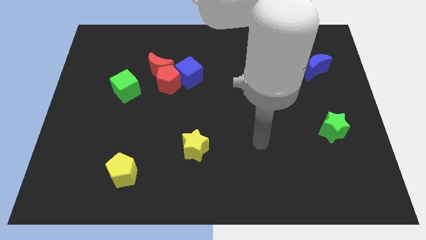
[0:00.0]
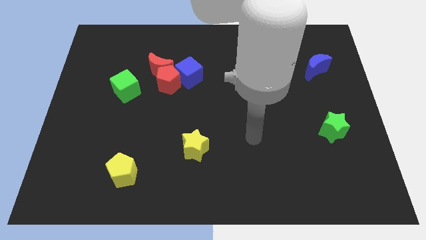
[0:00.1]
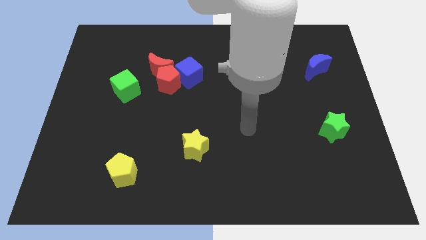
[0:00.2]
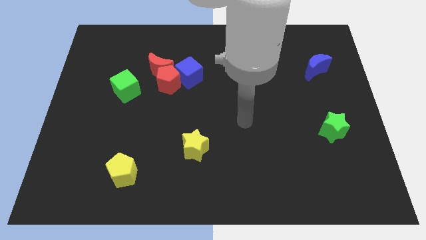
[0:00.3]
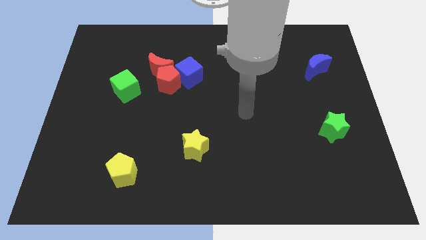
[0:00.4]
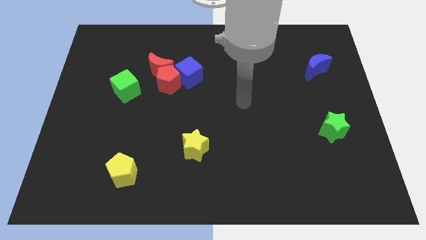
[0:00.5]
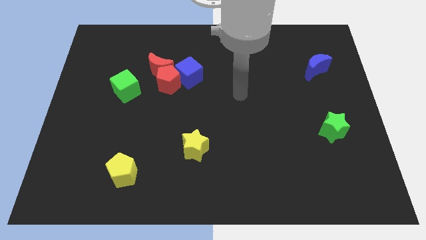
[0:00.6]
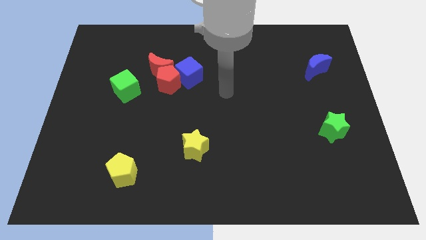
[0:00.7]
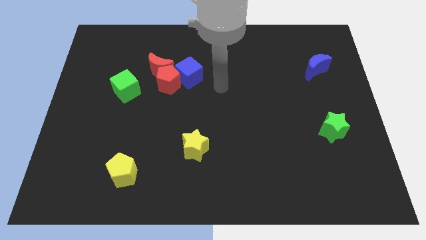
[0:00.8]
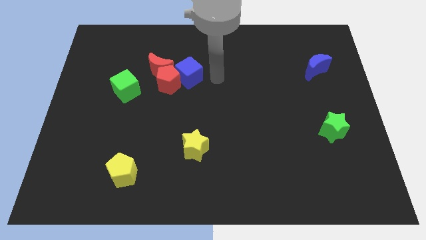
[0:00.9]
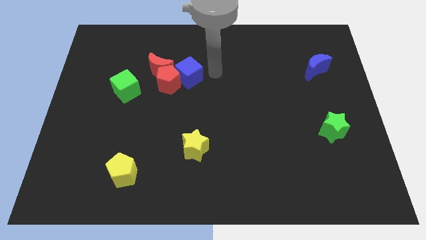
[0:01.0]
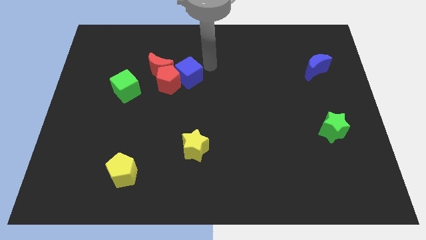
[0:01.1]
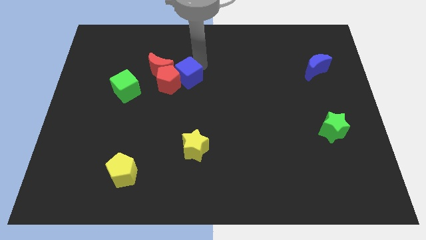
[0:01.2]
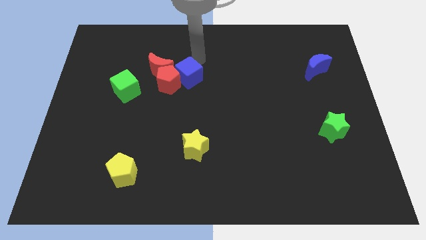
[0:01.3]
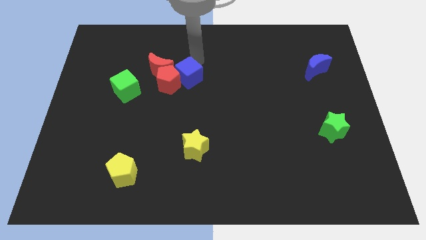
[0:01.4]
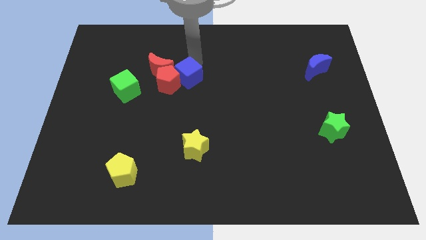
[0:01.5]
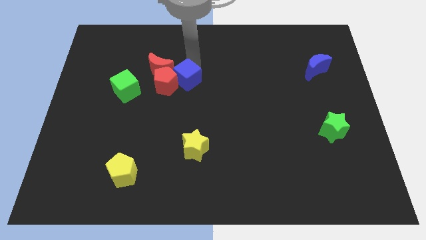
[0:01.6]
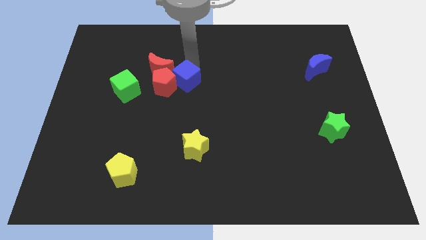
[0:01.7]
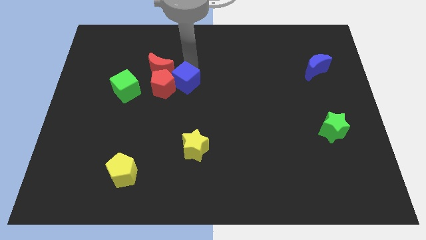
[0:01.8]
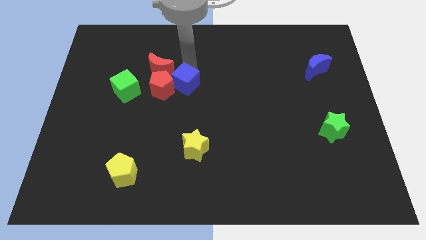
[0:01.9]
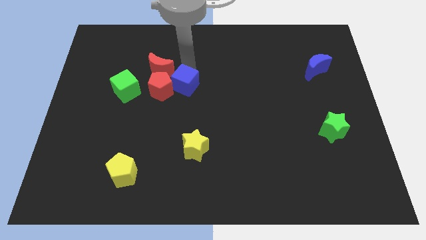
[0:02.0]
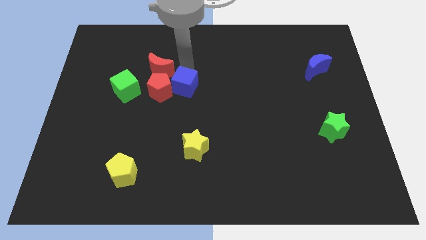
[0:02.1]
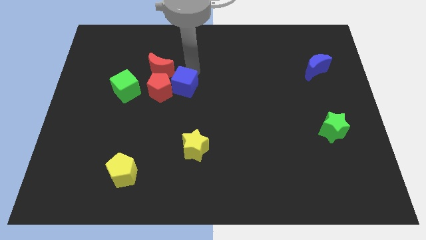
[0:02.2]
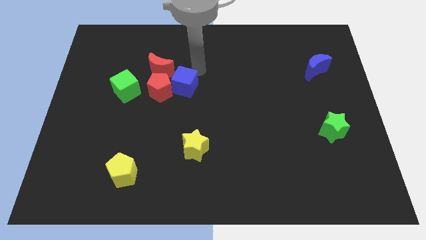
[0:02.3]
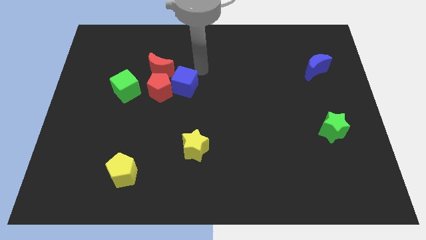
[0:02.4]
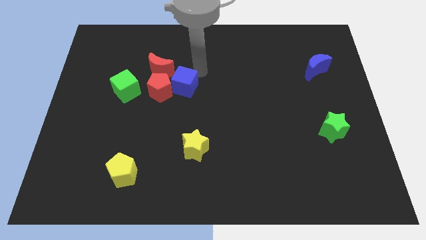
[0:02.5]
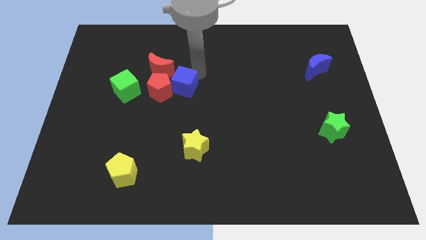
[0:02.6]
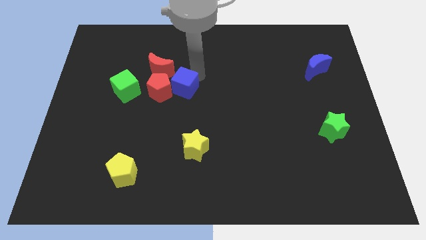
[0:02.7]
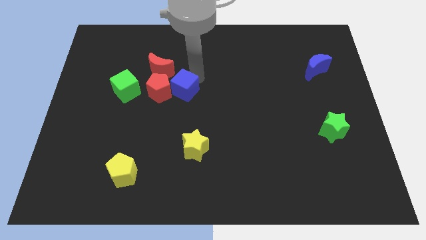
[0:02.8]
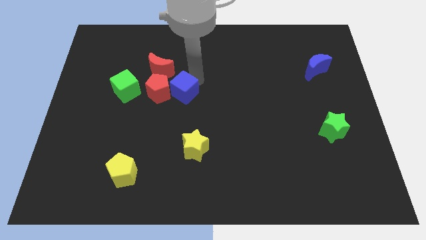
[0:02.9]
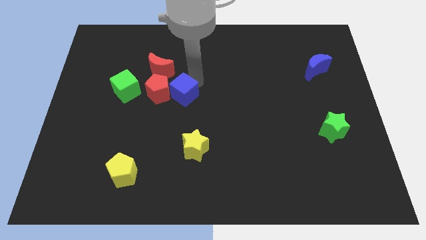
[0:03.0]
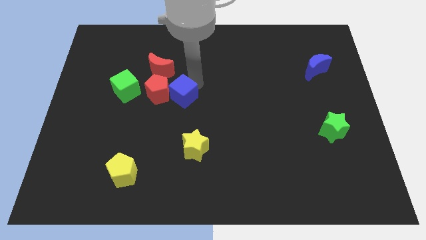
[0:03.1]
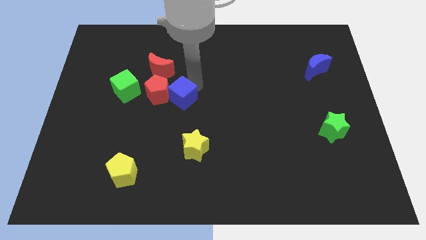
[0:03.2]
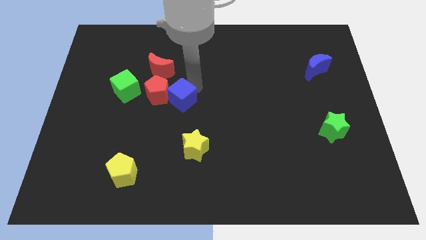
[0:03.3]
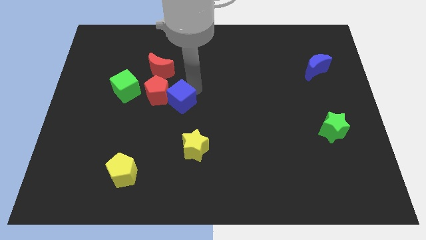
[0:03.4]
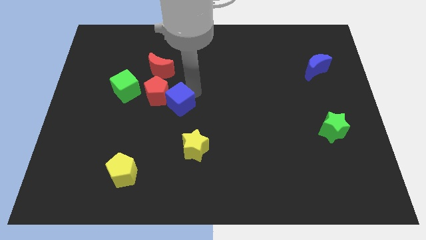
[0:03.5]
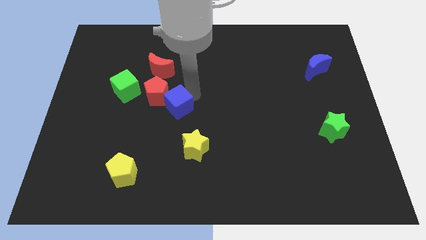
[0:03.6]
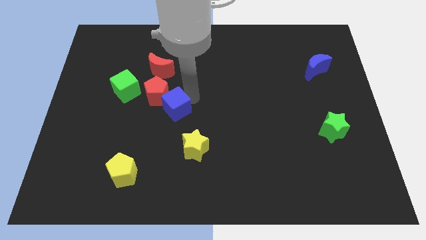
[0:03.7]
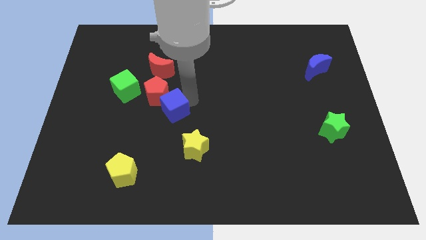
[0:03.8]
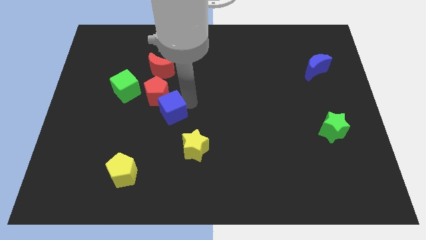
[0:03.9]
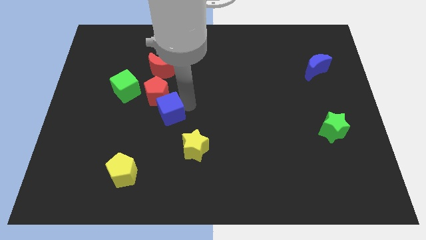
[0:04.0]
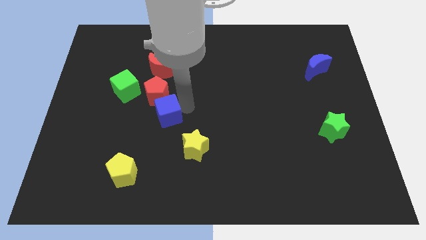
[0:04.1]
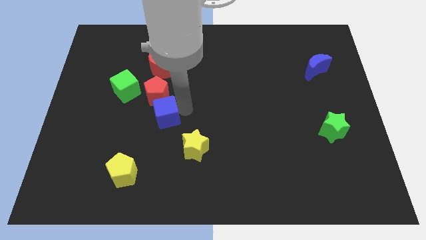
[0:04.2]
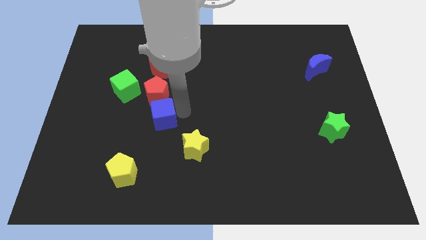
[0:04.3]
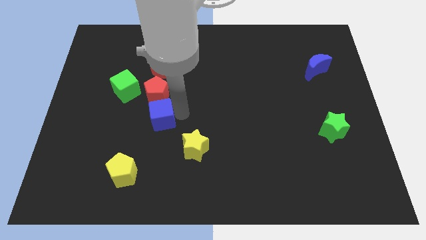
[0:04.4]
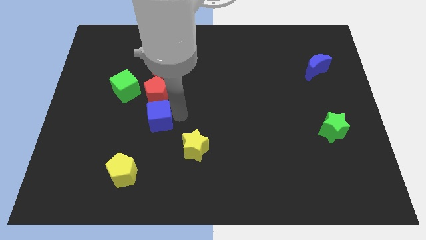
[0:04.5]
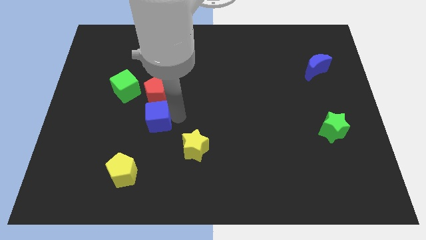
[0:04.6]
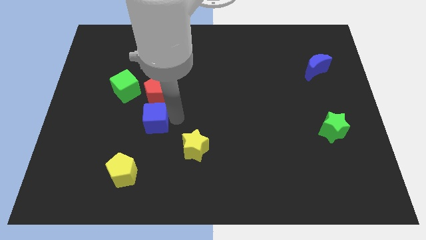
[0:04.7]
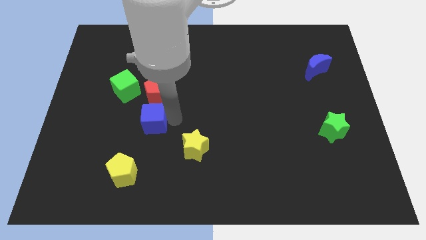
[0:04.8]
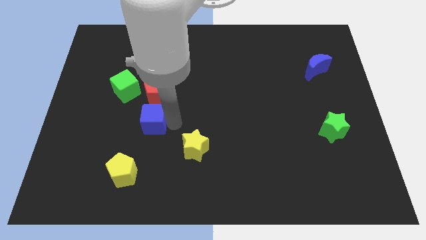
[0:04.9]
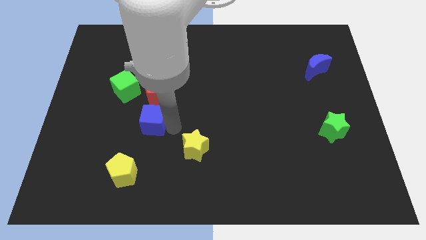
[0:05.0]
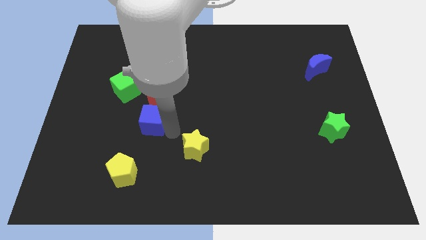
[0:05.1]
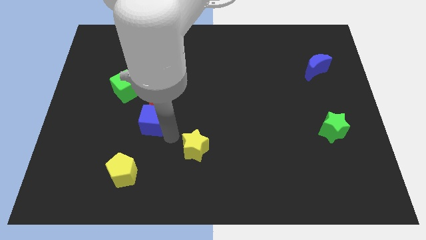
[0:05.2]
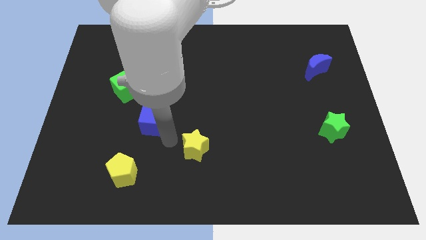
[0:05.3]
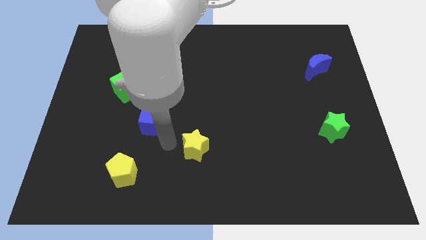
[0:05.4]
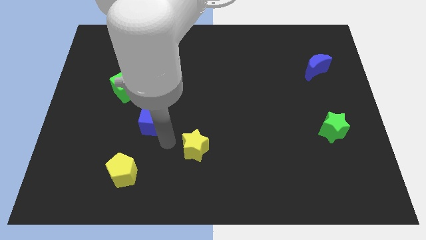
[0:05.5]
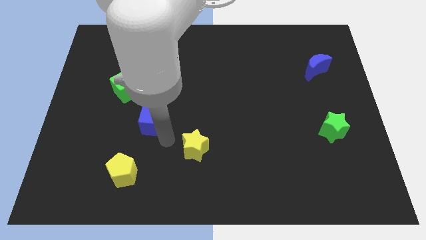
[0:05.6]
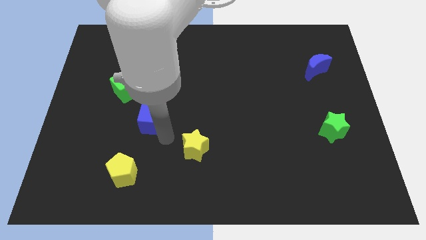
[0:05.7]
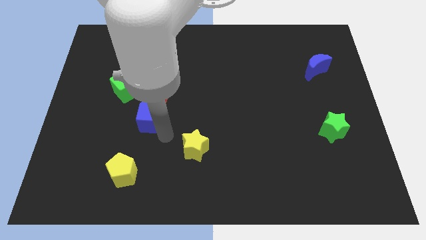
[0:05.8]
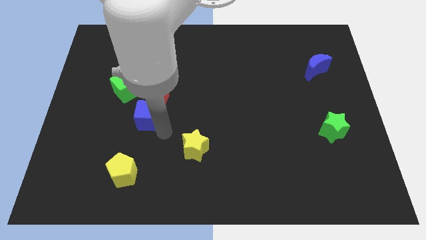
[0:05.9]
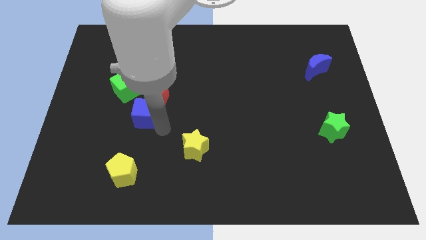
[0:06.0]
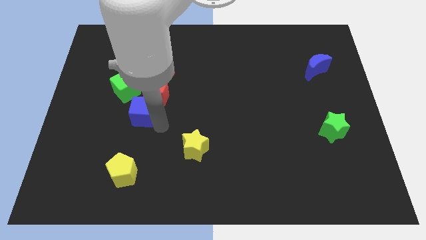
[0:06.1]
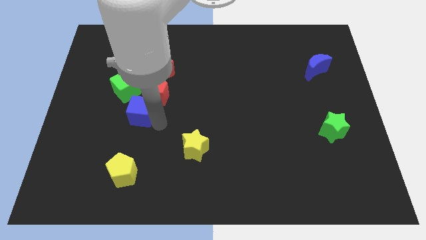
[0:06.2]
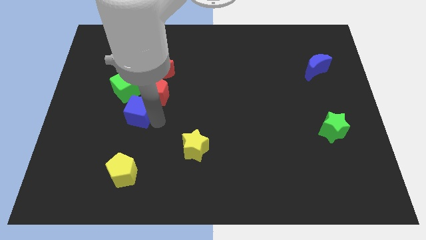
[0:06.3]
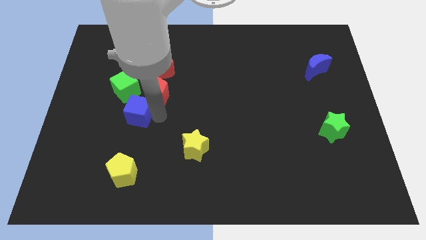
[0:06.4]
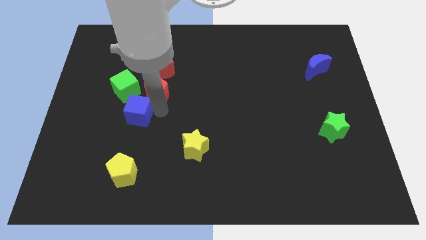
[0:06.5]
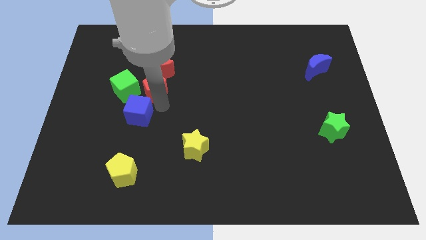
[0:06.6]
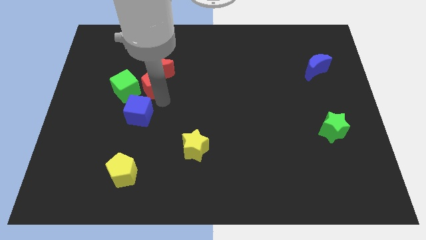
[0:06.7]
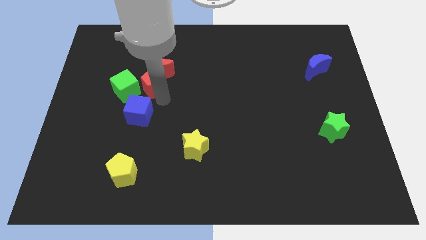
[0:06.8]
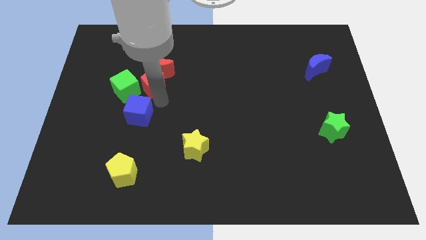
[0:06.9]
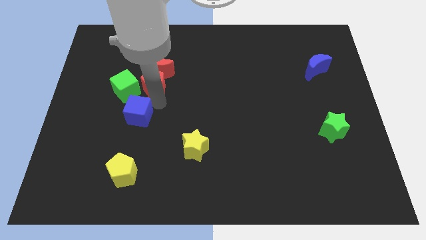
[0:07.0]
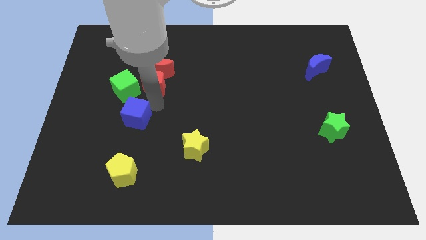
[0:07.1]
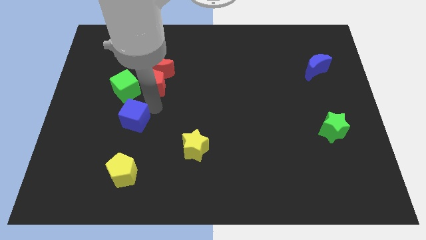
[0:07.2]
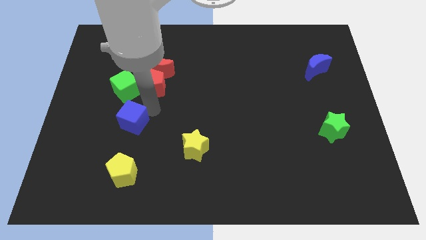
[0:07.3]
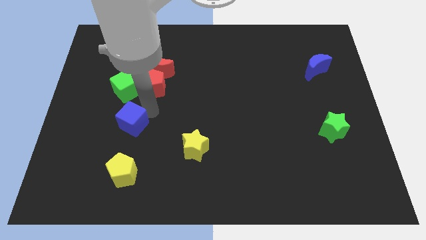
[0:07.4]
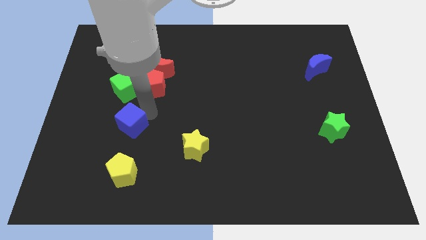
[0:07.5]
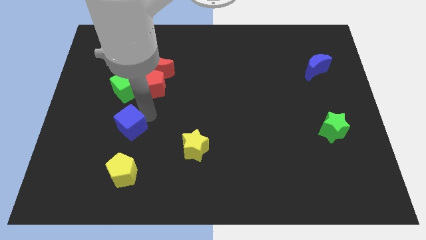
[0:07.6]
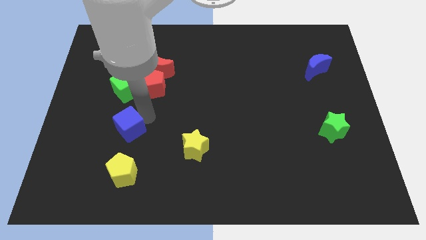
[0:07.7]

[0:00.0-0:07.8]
move the blue cube downwards and then left
